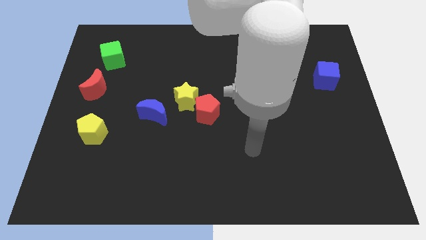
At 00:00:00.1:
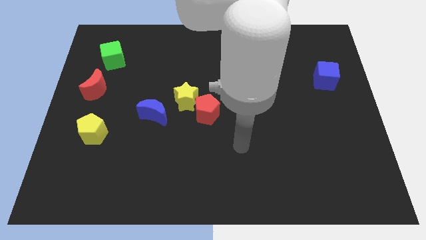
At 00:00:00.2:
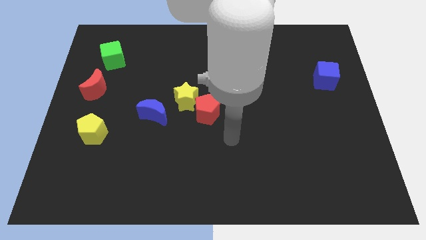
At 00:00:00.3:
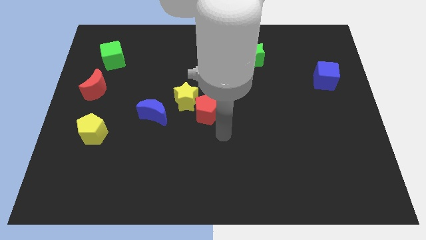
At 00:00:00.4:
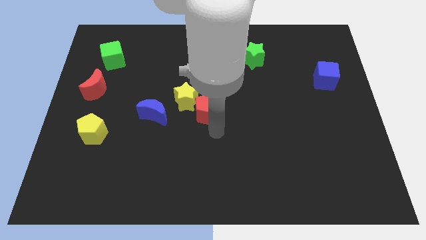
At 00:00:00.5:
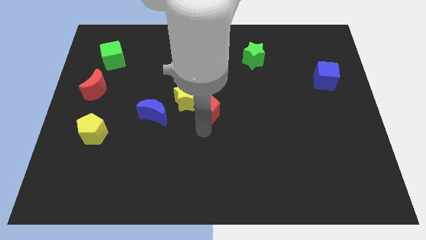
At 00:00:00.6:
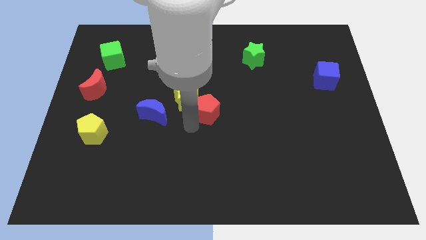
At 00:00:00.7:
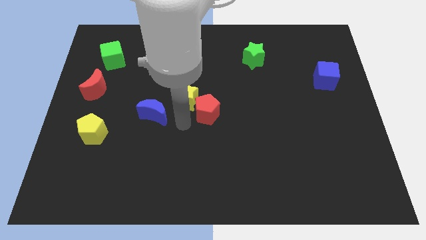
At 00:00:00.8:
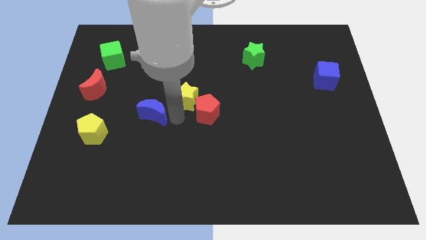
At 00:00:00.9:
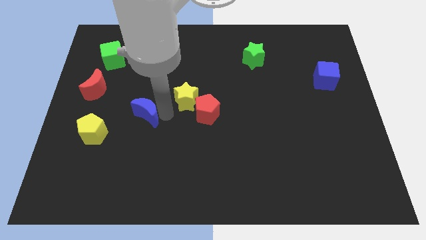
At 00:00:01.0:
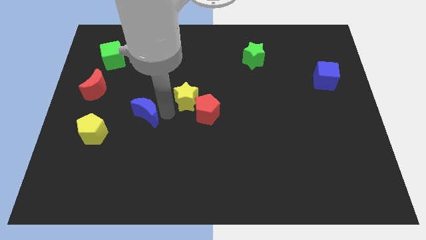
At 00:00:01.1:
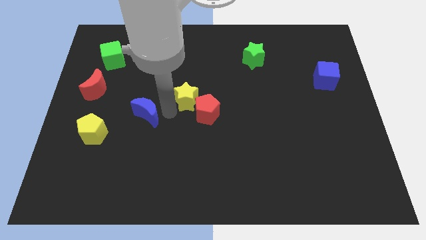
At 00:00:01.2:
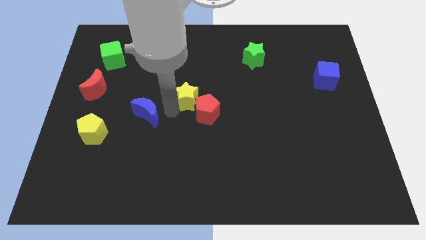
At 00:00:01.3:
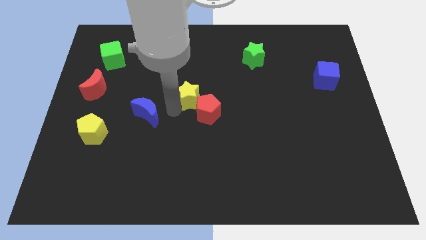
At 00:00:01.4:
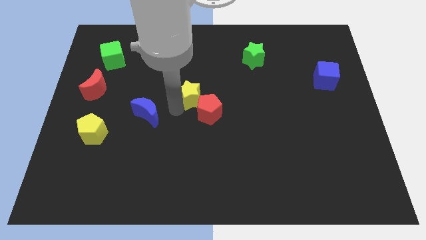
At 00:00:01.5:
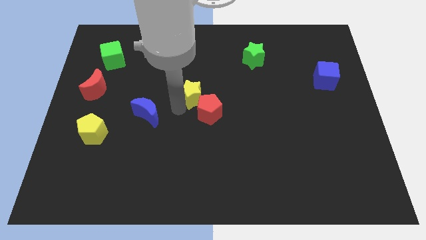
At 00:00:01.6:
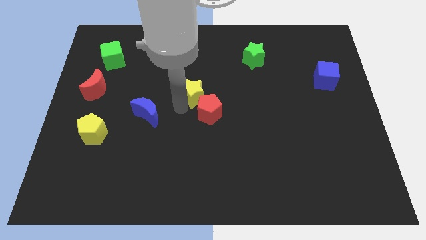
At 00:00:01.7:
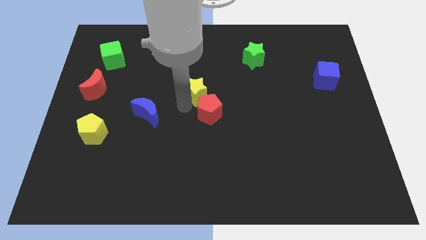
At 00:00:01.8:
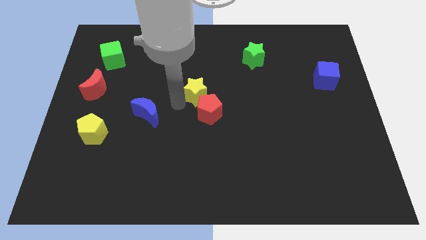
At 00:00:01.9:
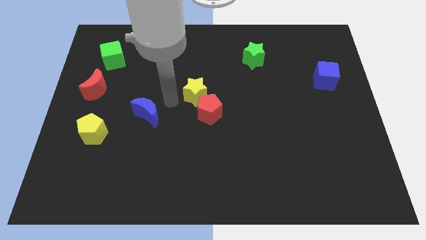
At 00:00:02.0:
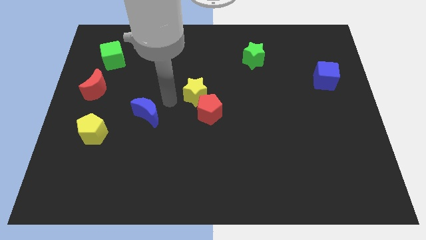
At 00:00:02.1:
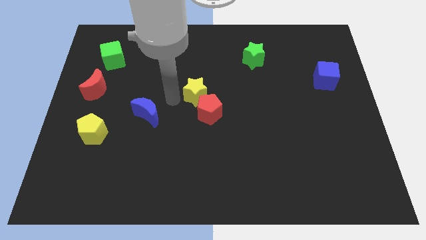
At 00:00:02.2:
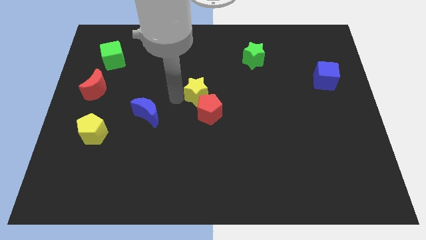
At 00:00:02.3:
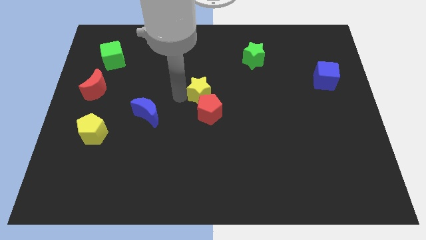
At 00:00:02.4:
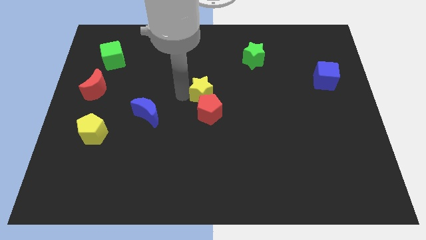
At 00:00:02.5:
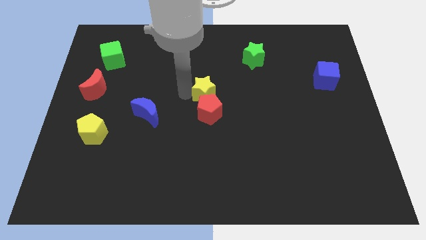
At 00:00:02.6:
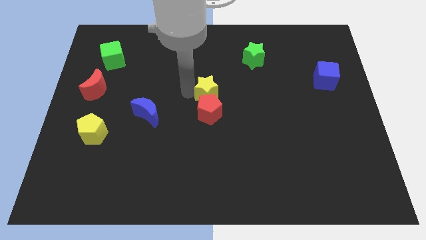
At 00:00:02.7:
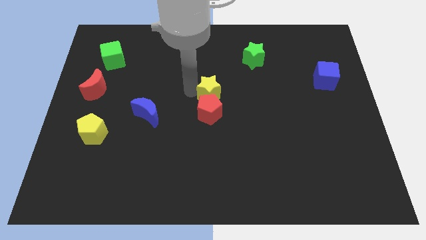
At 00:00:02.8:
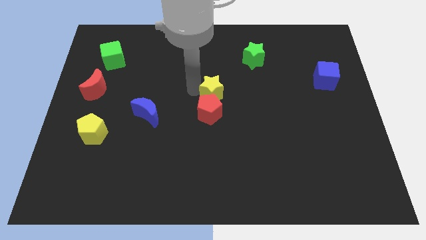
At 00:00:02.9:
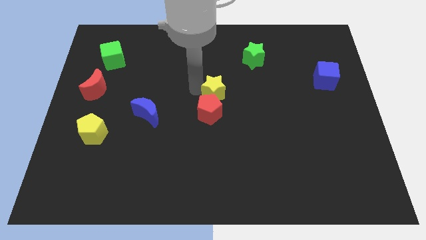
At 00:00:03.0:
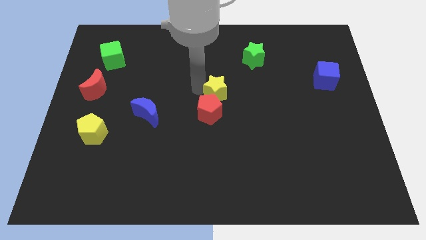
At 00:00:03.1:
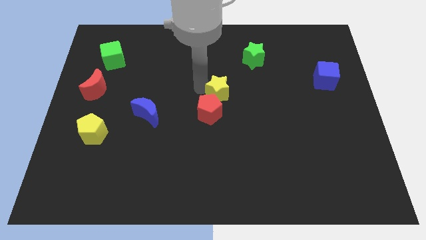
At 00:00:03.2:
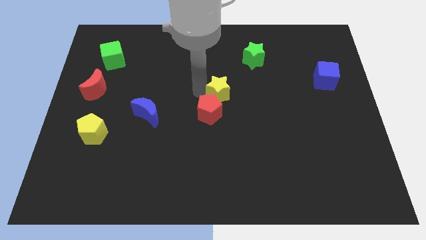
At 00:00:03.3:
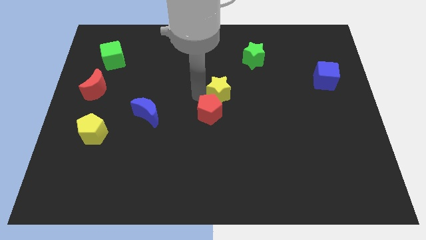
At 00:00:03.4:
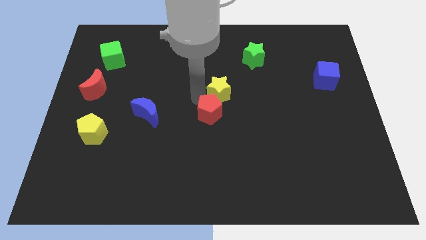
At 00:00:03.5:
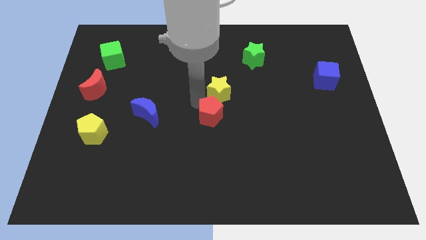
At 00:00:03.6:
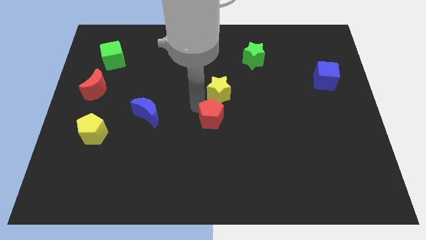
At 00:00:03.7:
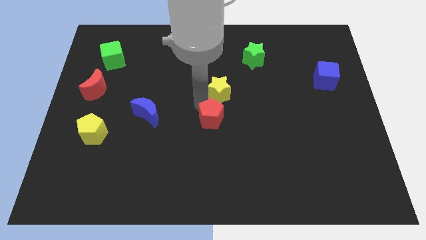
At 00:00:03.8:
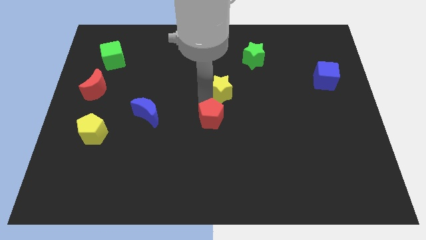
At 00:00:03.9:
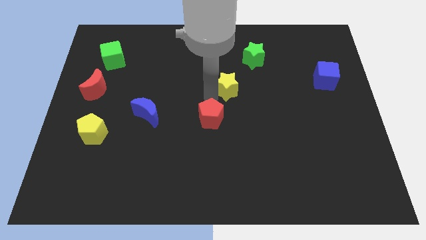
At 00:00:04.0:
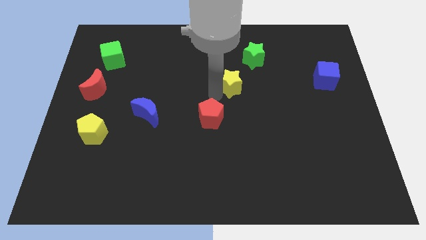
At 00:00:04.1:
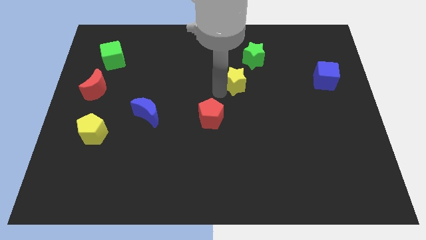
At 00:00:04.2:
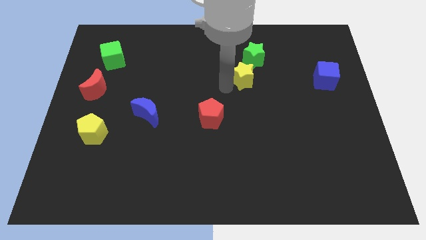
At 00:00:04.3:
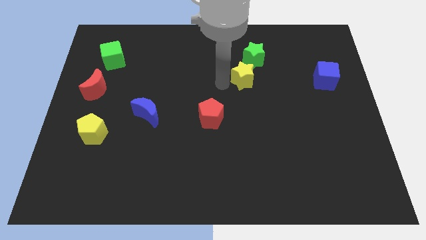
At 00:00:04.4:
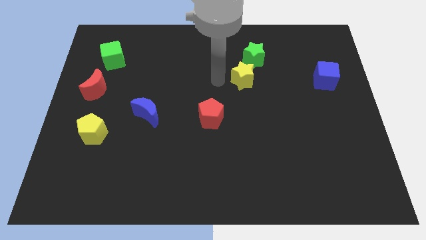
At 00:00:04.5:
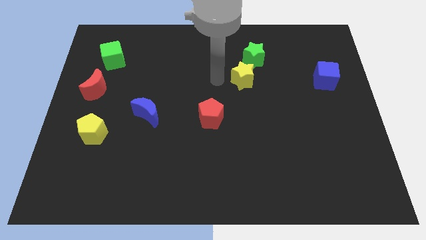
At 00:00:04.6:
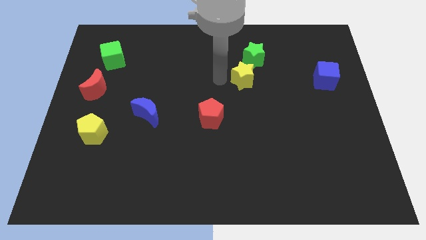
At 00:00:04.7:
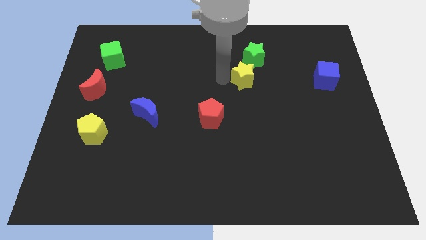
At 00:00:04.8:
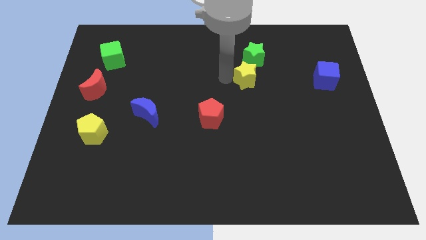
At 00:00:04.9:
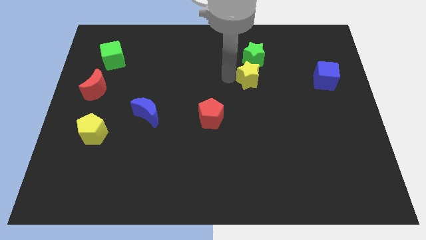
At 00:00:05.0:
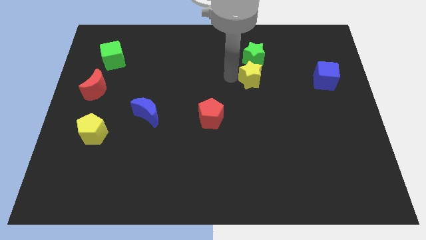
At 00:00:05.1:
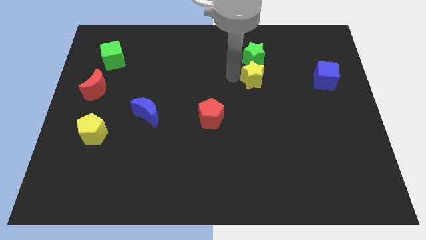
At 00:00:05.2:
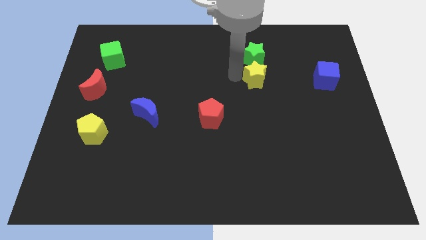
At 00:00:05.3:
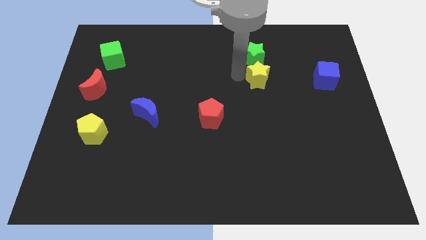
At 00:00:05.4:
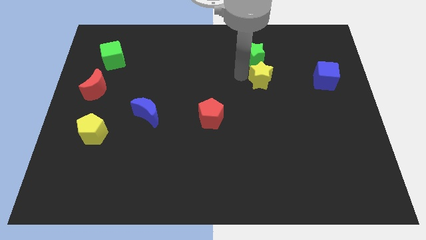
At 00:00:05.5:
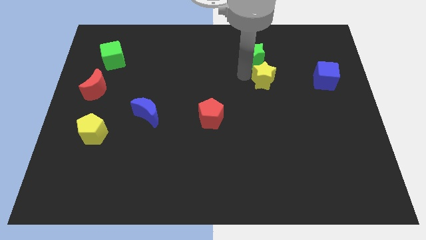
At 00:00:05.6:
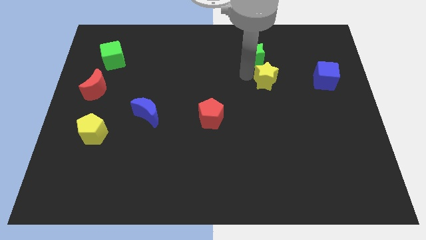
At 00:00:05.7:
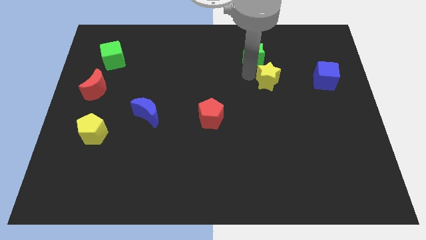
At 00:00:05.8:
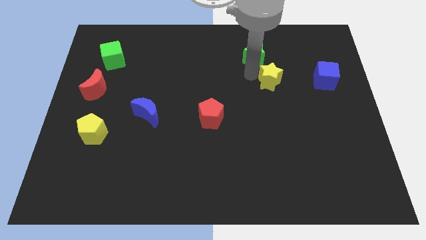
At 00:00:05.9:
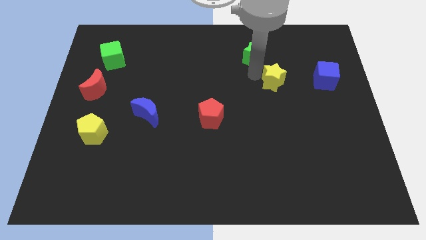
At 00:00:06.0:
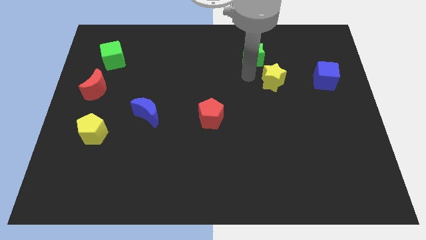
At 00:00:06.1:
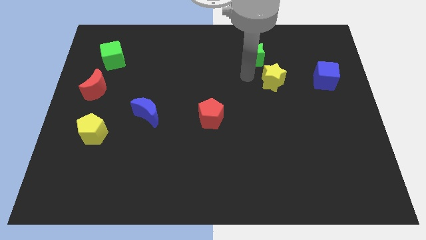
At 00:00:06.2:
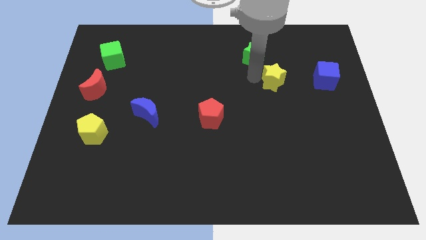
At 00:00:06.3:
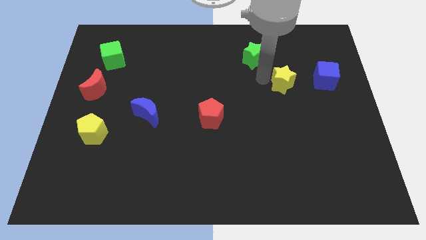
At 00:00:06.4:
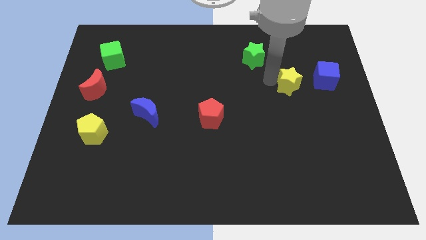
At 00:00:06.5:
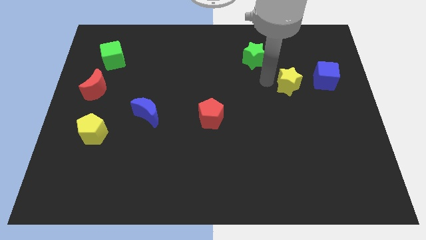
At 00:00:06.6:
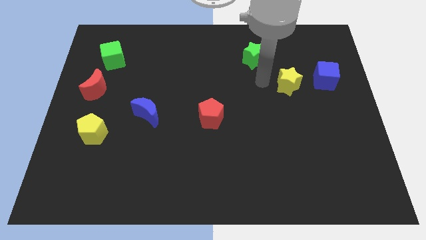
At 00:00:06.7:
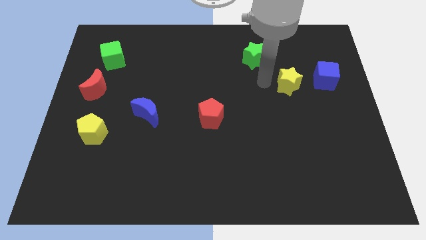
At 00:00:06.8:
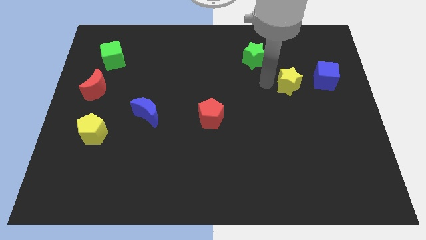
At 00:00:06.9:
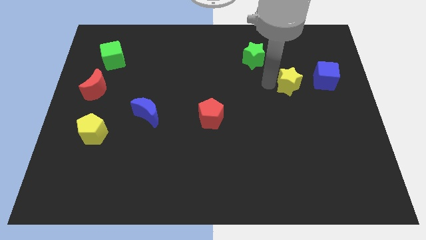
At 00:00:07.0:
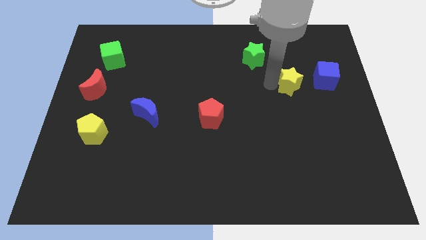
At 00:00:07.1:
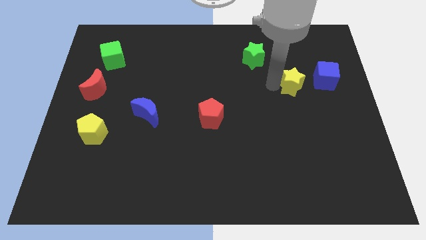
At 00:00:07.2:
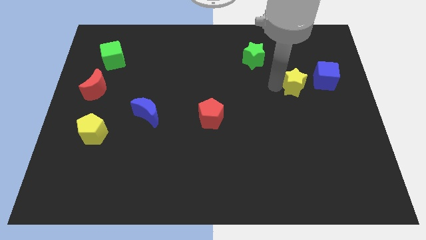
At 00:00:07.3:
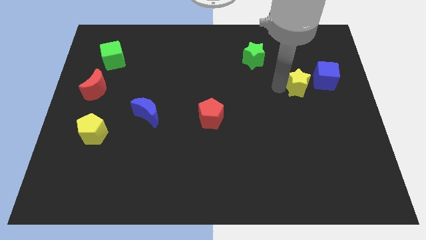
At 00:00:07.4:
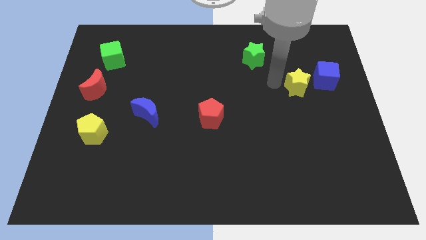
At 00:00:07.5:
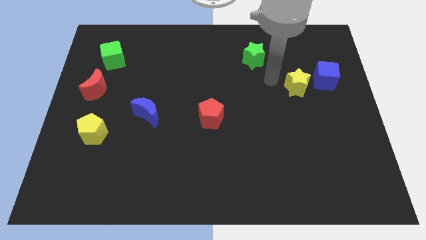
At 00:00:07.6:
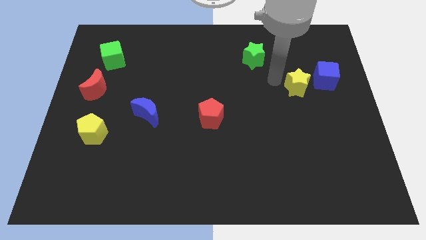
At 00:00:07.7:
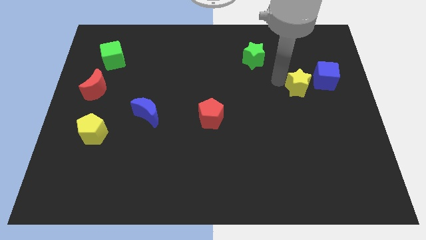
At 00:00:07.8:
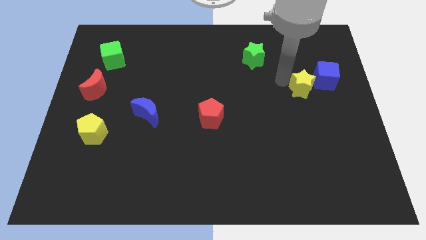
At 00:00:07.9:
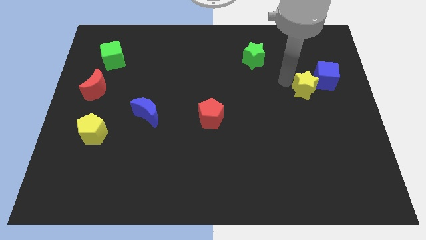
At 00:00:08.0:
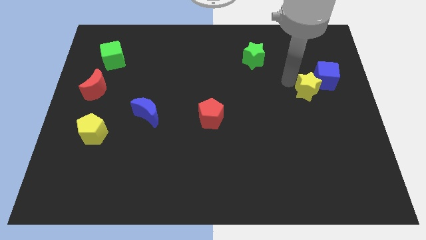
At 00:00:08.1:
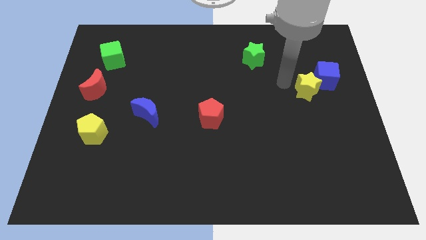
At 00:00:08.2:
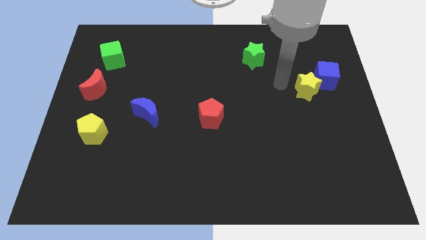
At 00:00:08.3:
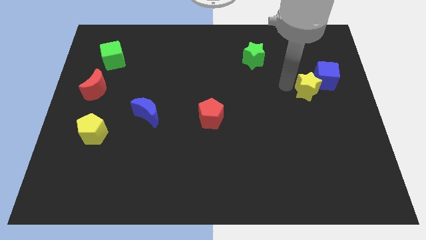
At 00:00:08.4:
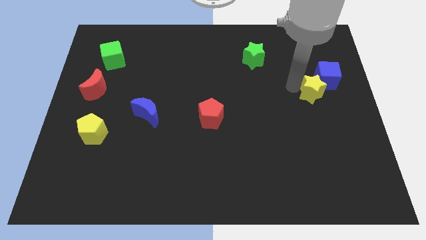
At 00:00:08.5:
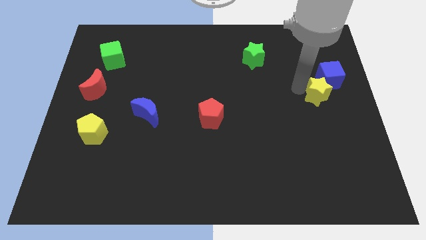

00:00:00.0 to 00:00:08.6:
push the yellow star to the right side
